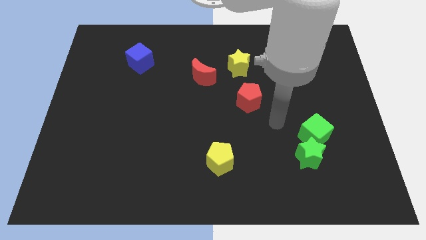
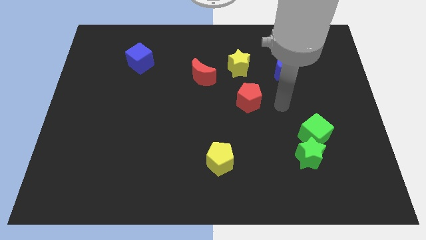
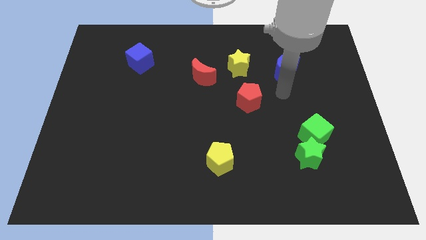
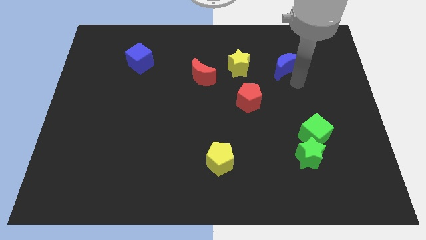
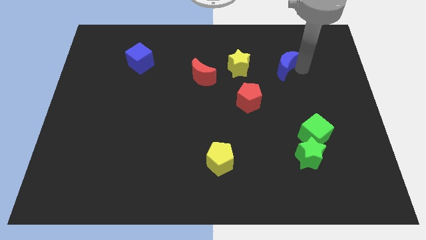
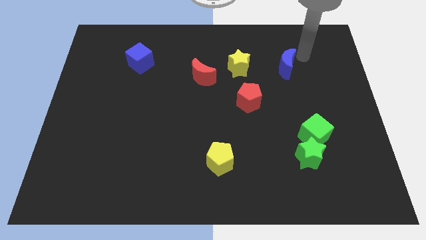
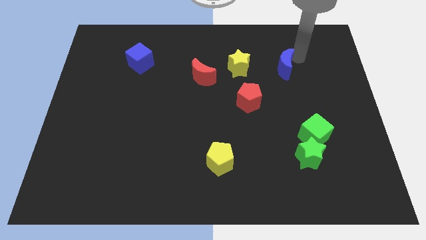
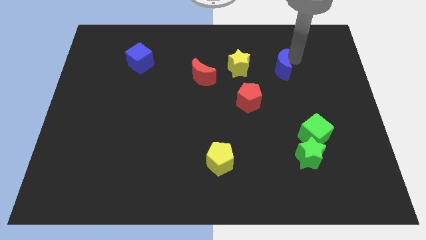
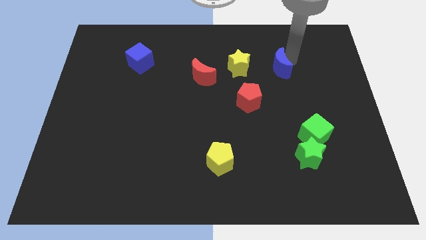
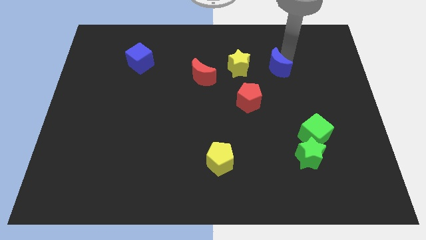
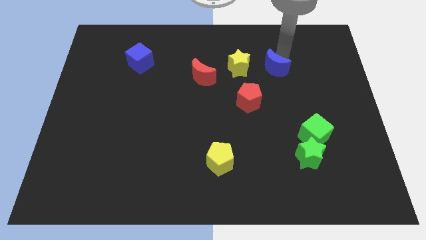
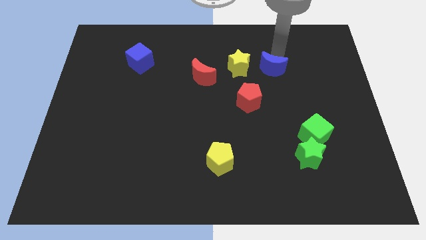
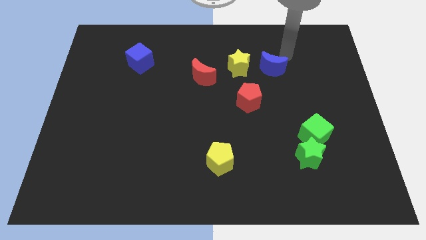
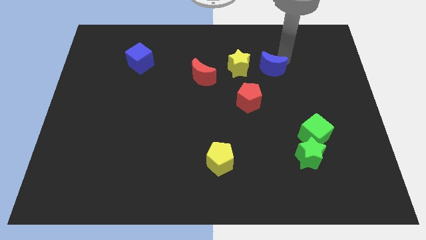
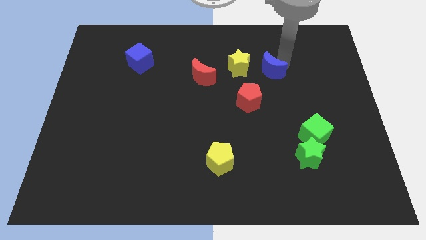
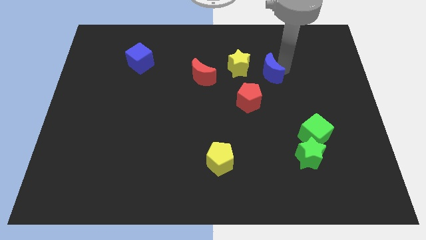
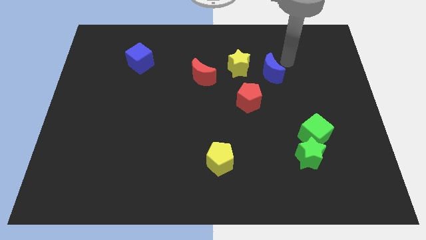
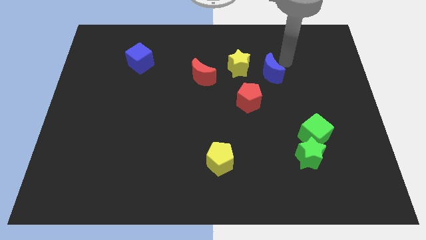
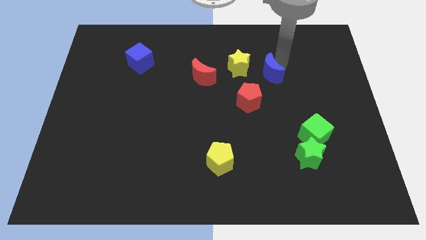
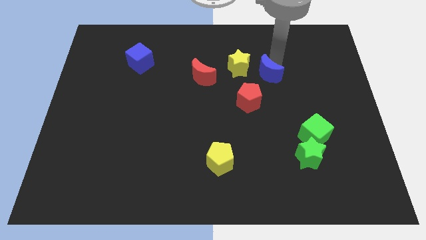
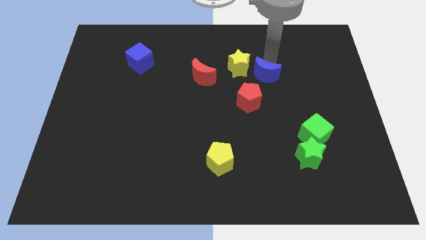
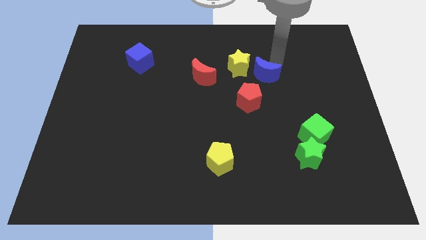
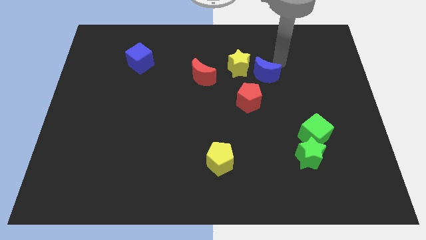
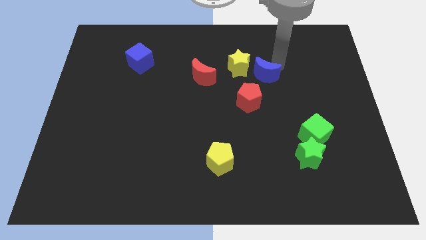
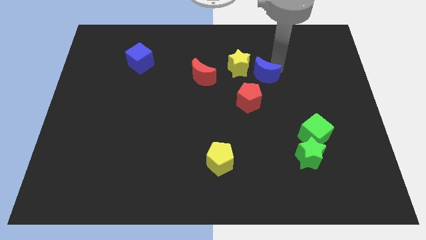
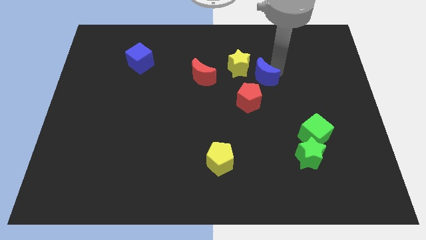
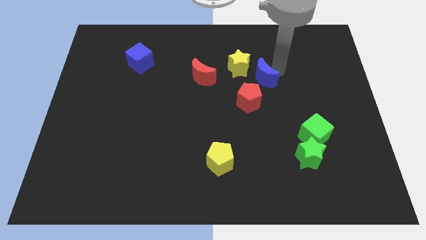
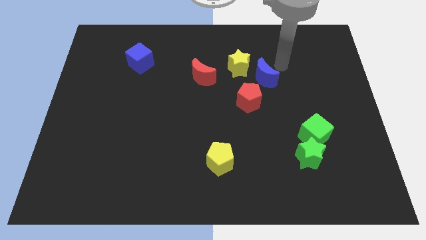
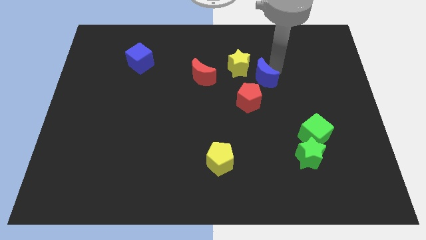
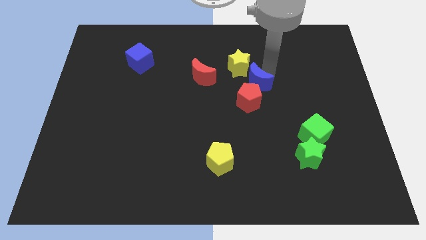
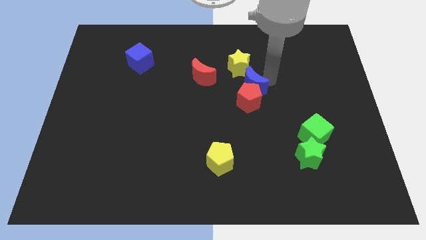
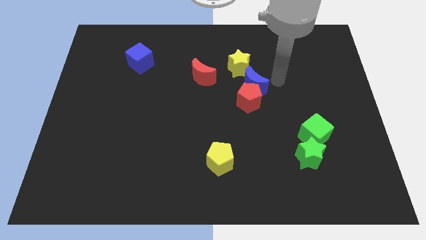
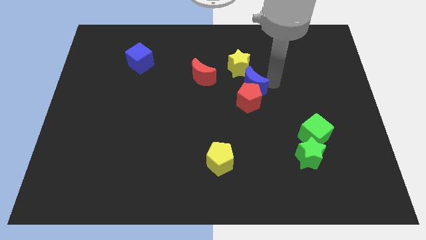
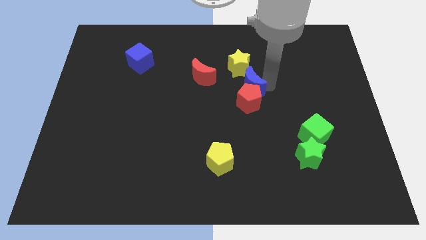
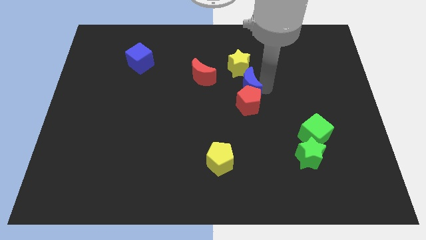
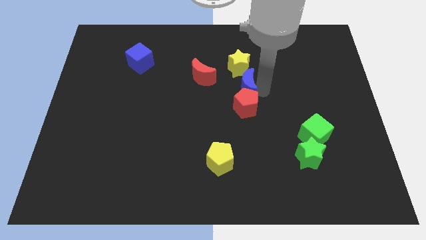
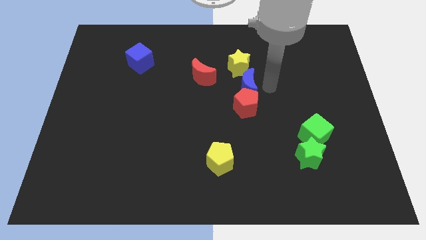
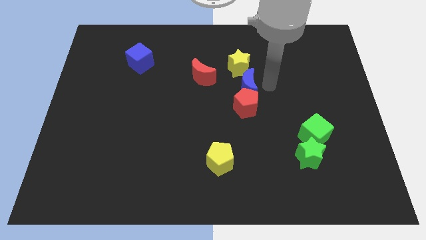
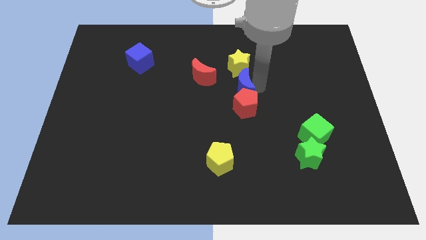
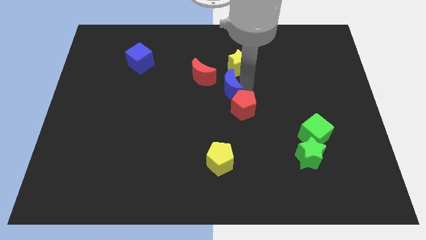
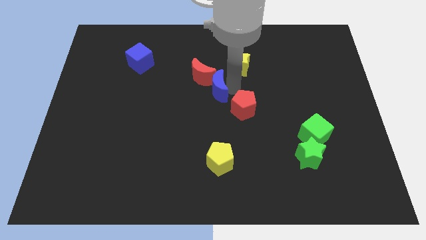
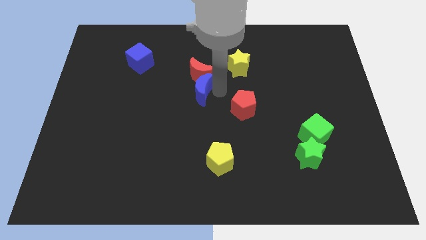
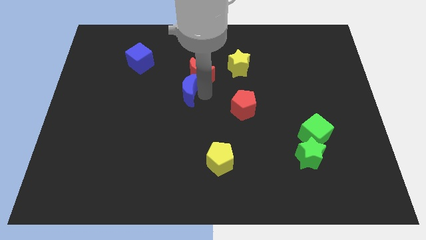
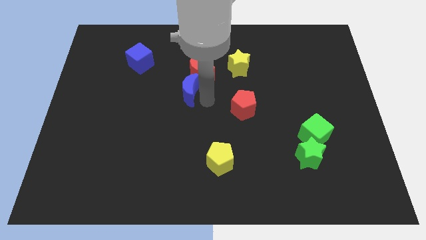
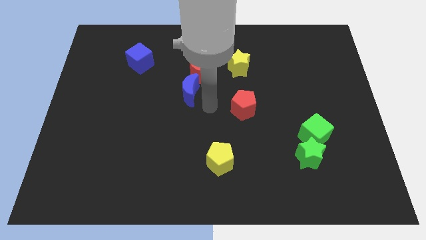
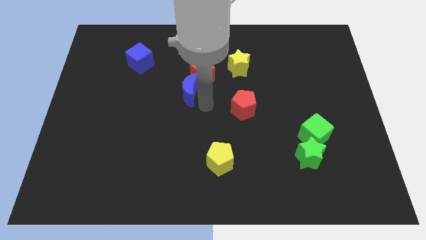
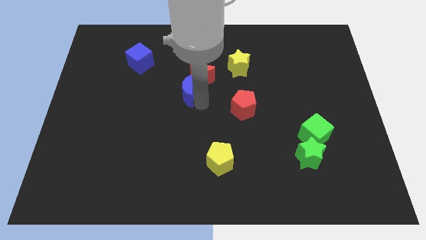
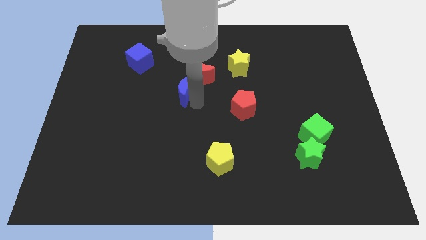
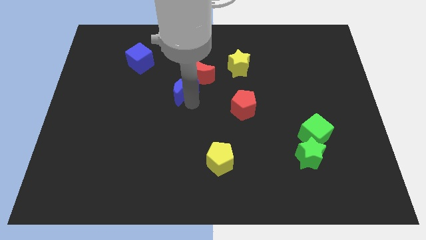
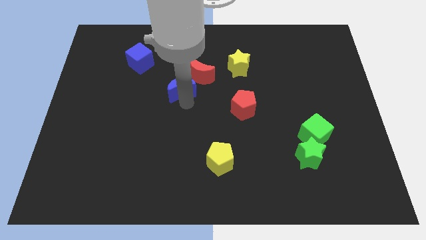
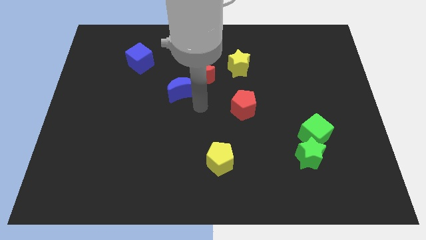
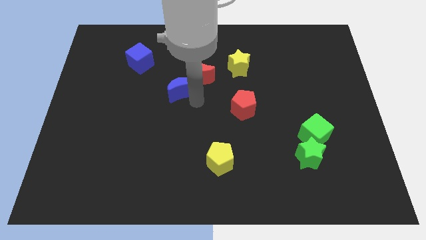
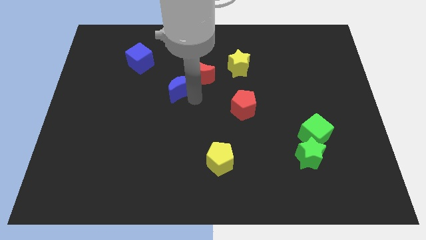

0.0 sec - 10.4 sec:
put the blue moon to the left of the red moon
